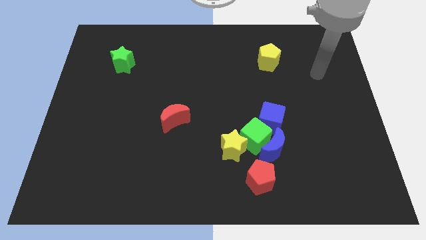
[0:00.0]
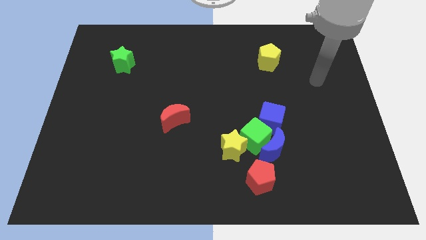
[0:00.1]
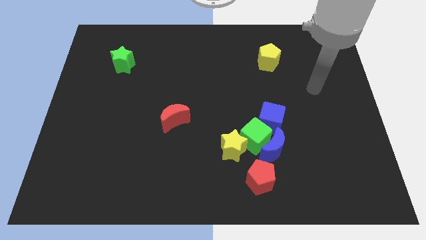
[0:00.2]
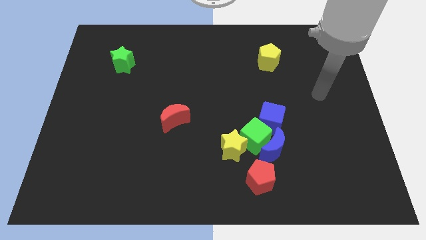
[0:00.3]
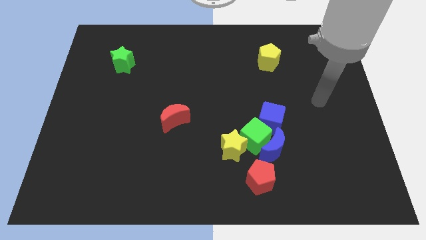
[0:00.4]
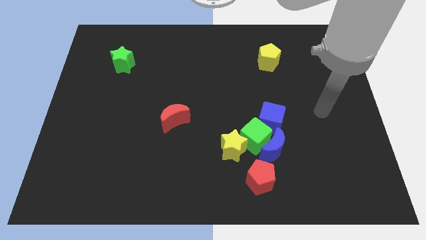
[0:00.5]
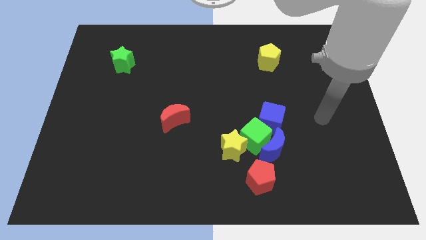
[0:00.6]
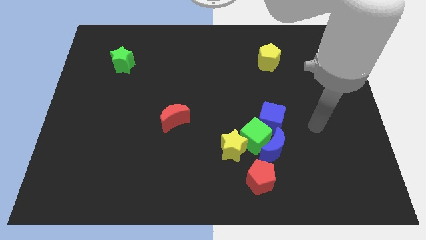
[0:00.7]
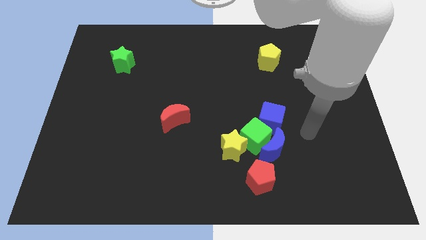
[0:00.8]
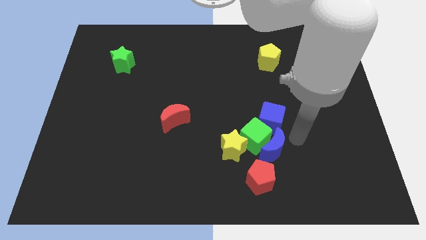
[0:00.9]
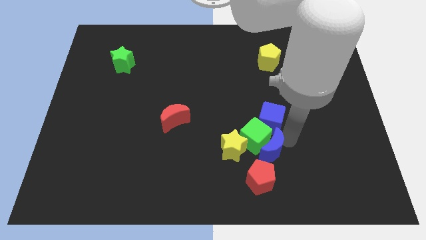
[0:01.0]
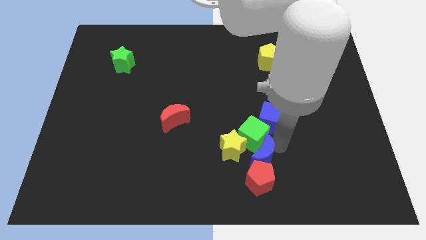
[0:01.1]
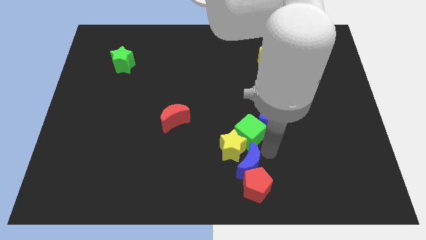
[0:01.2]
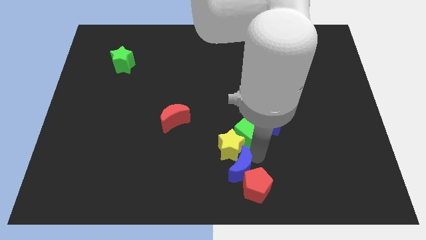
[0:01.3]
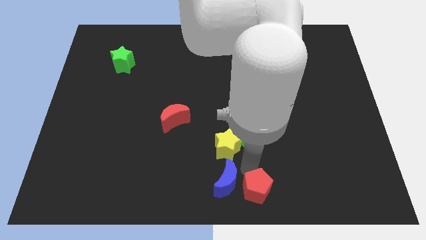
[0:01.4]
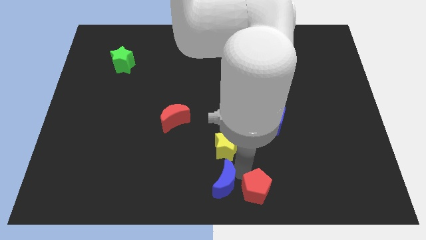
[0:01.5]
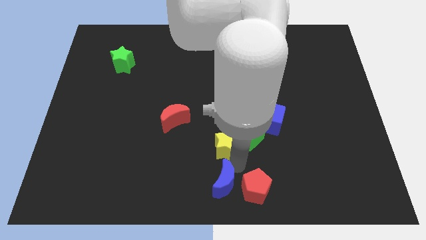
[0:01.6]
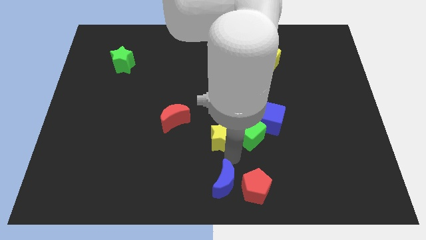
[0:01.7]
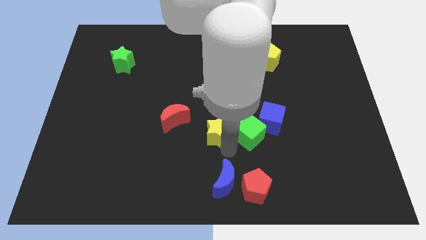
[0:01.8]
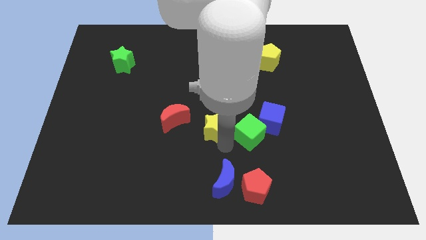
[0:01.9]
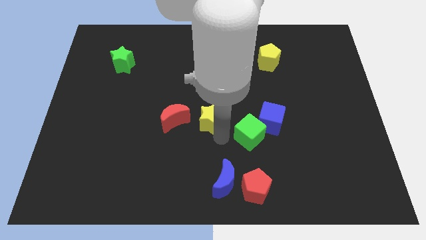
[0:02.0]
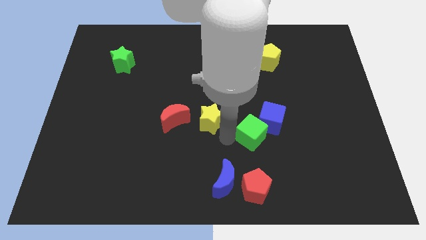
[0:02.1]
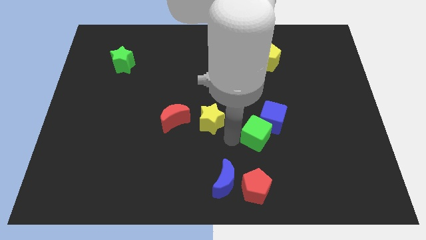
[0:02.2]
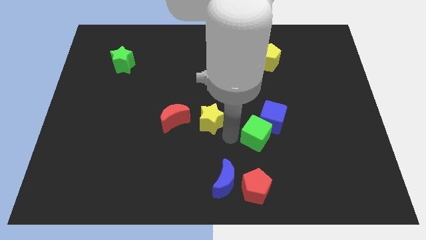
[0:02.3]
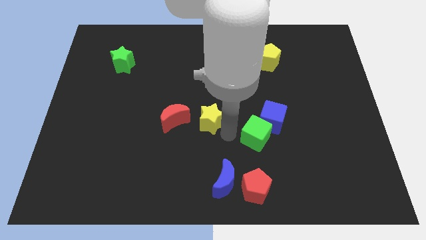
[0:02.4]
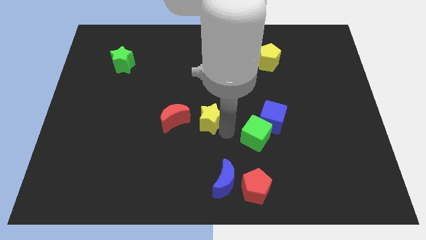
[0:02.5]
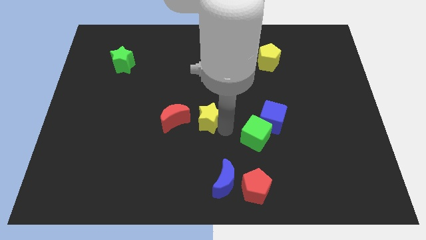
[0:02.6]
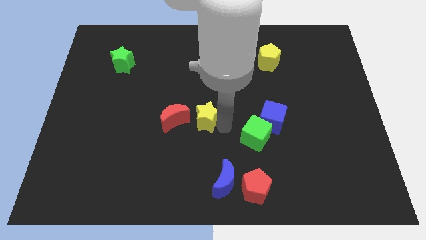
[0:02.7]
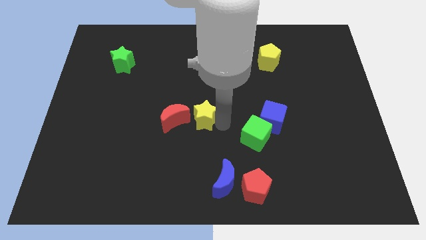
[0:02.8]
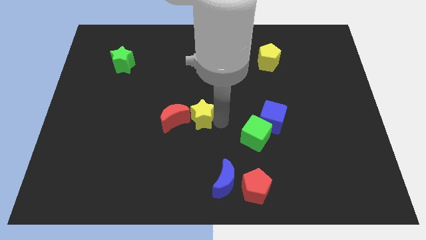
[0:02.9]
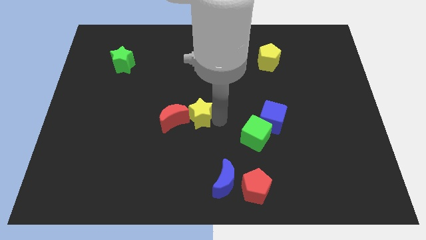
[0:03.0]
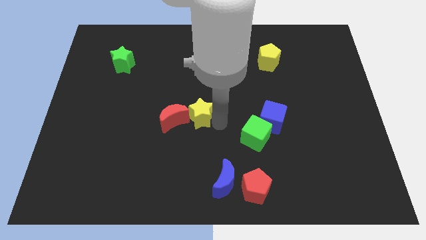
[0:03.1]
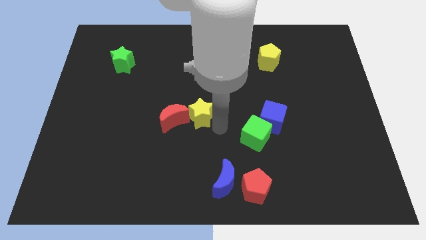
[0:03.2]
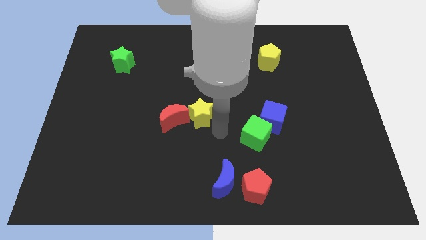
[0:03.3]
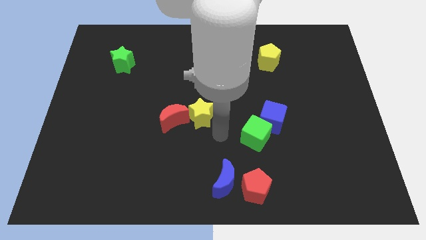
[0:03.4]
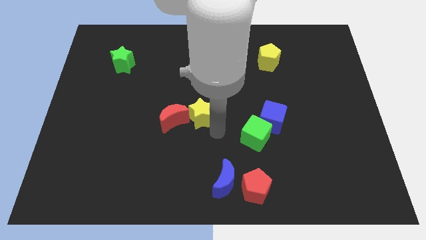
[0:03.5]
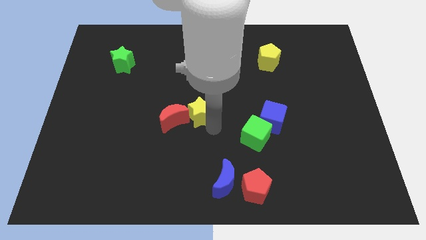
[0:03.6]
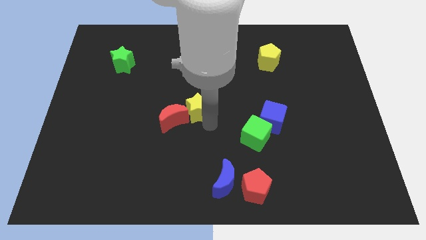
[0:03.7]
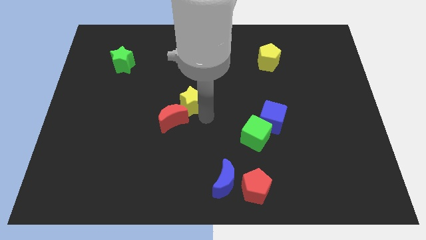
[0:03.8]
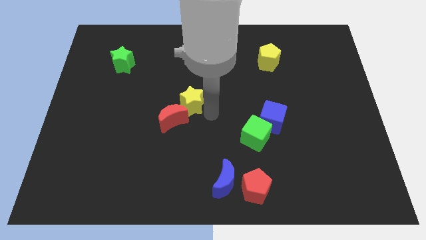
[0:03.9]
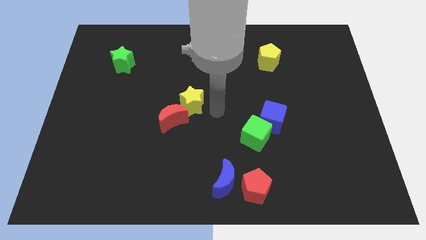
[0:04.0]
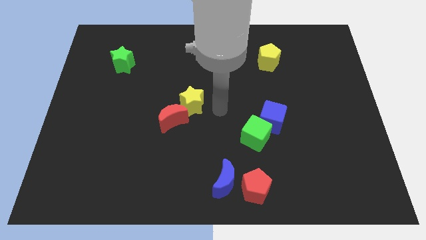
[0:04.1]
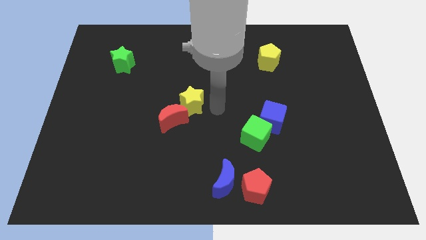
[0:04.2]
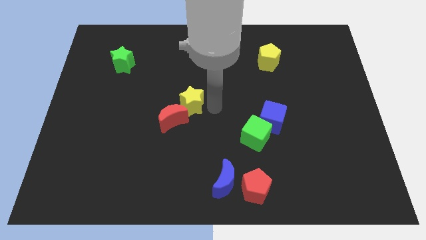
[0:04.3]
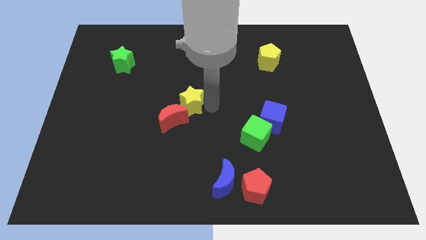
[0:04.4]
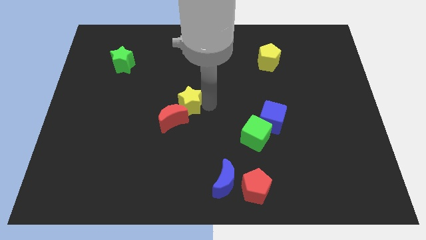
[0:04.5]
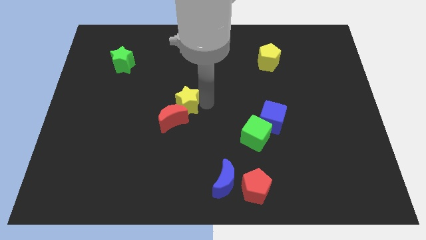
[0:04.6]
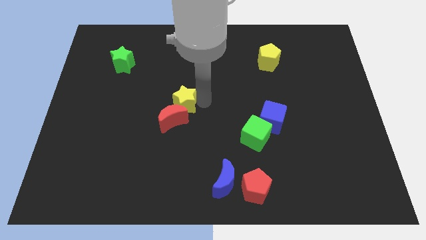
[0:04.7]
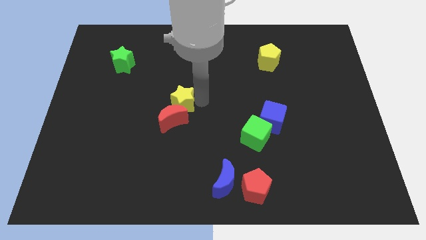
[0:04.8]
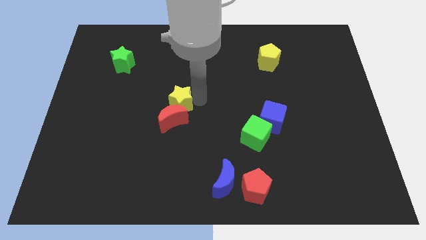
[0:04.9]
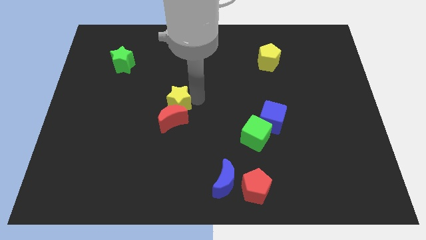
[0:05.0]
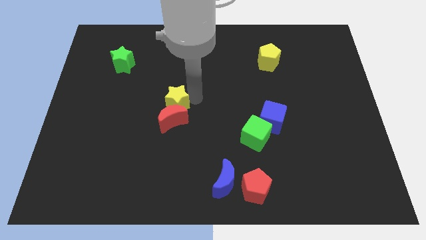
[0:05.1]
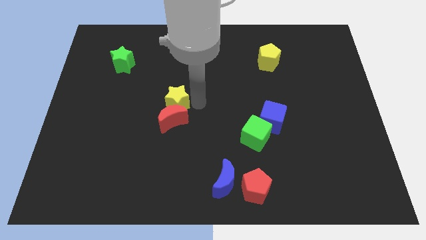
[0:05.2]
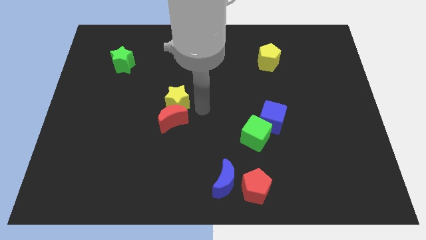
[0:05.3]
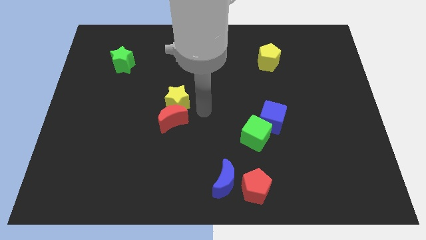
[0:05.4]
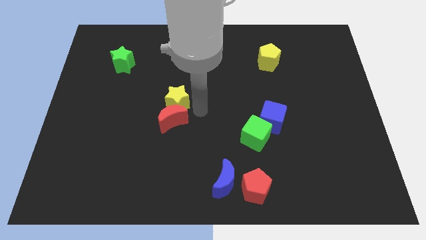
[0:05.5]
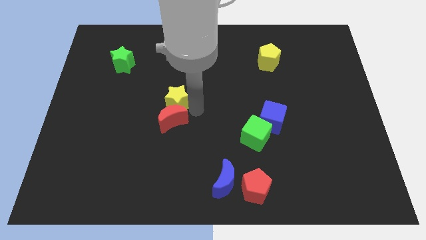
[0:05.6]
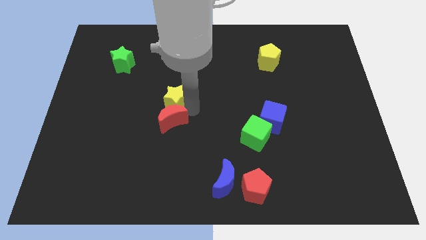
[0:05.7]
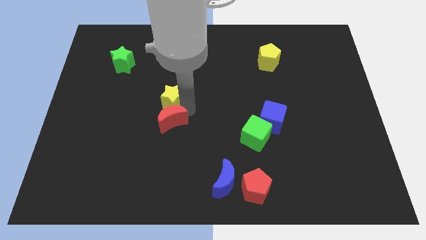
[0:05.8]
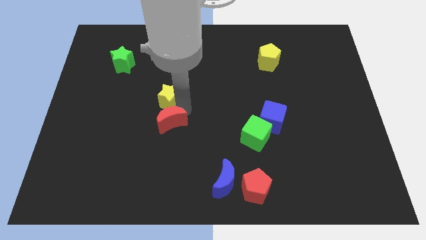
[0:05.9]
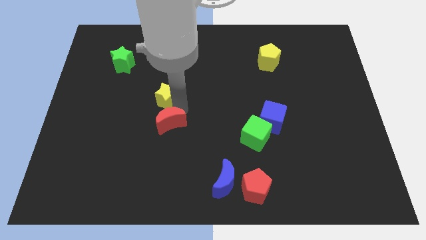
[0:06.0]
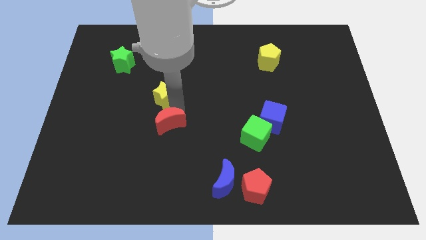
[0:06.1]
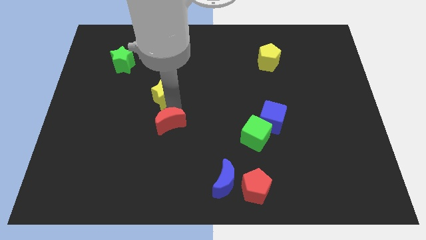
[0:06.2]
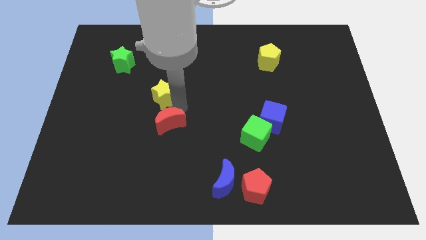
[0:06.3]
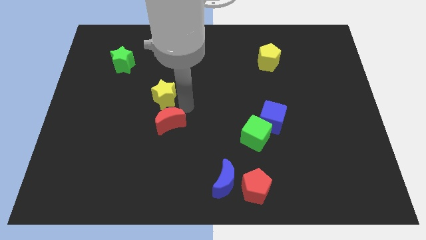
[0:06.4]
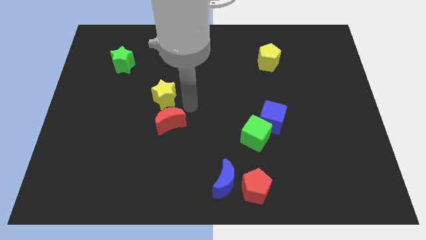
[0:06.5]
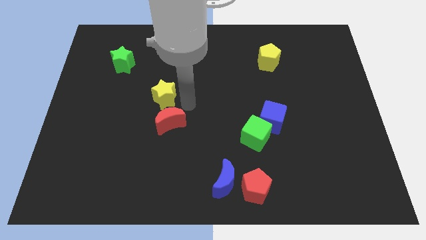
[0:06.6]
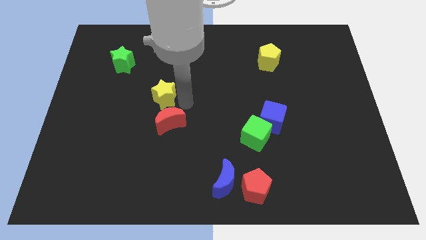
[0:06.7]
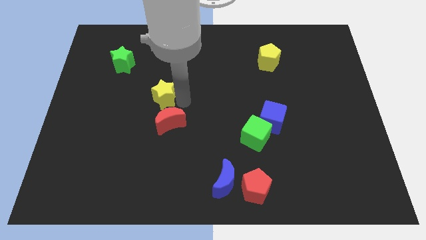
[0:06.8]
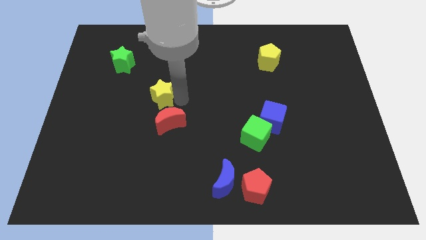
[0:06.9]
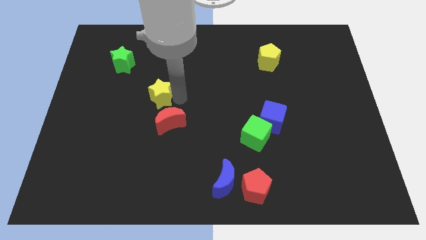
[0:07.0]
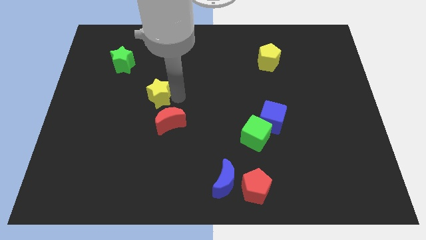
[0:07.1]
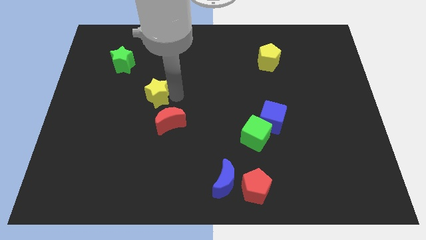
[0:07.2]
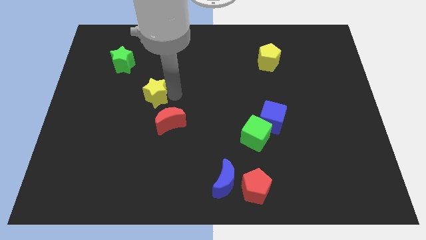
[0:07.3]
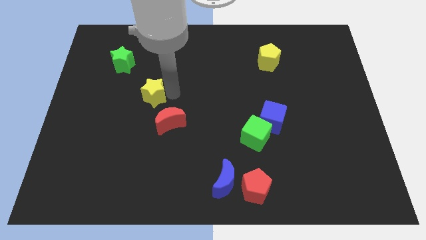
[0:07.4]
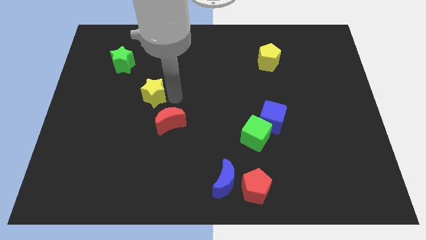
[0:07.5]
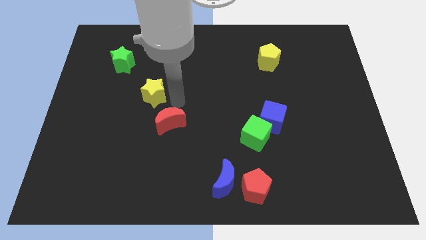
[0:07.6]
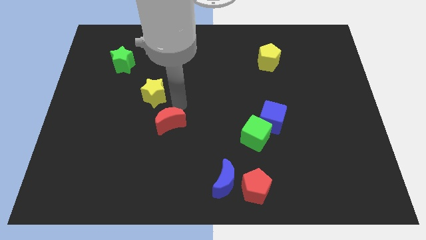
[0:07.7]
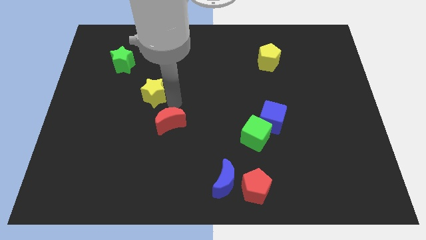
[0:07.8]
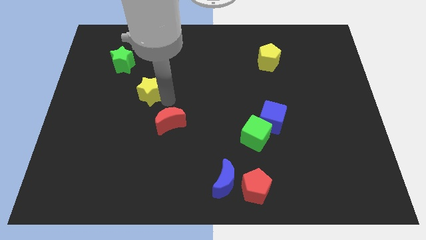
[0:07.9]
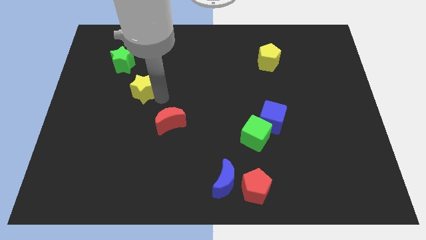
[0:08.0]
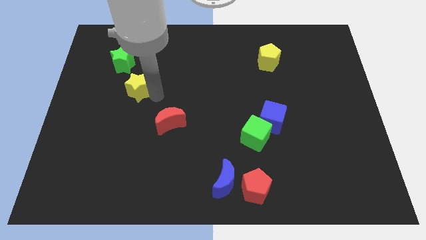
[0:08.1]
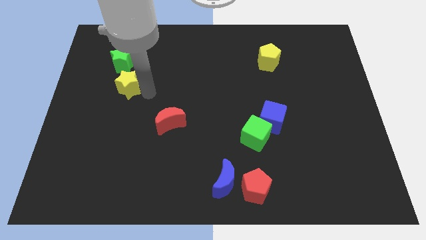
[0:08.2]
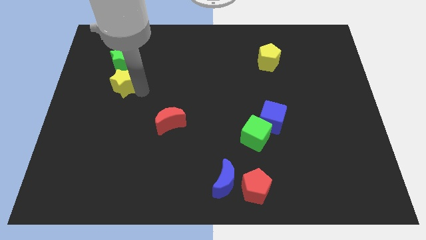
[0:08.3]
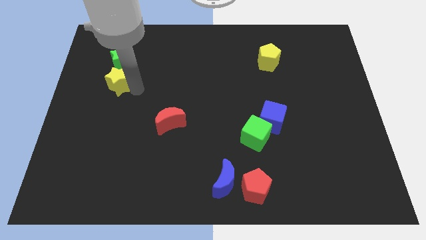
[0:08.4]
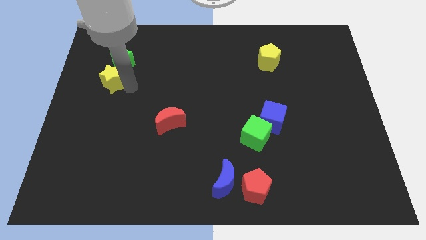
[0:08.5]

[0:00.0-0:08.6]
slide the yellow star to the bottom left of the green star
